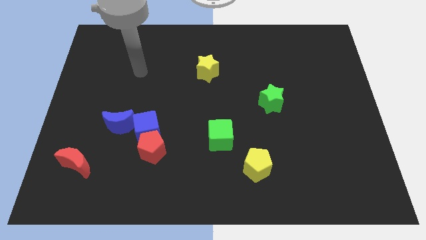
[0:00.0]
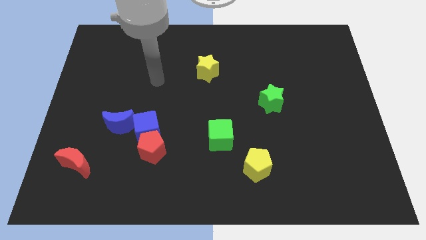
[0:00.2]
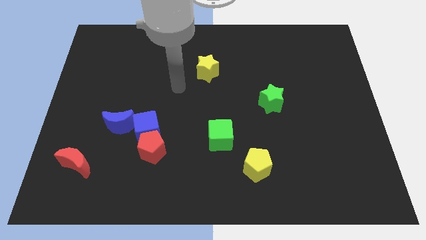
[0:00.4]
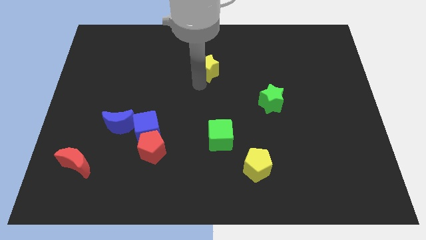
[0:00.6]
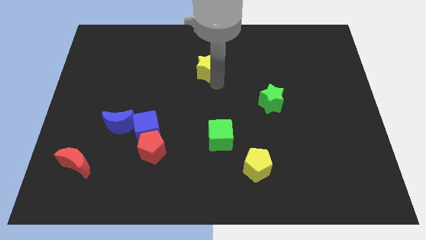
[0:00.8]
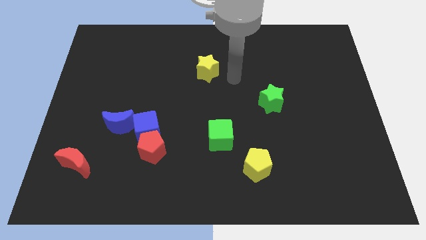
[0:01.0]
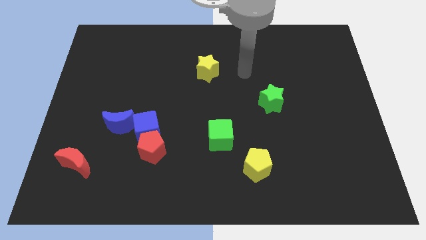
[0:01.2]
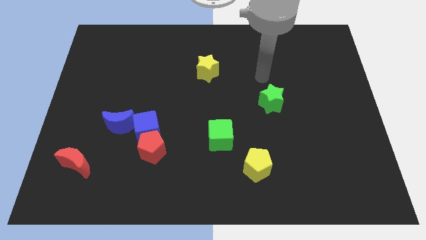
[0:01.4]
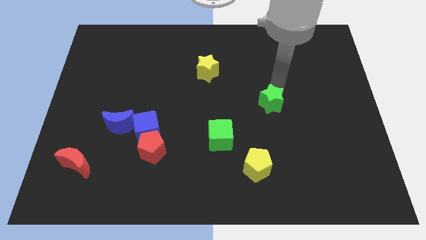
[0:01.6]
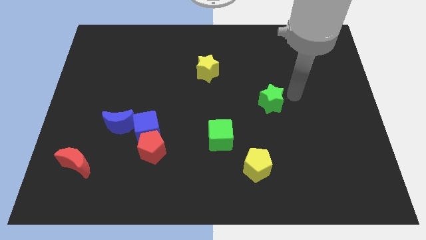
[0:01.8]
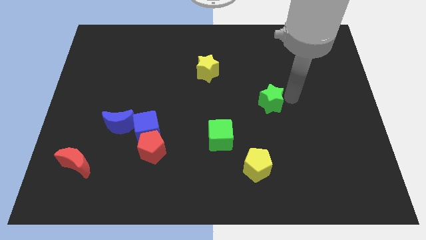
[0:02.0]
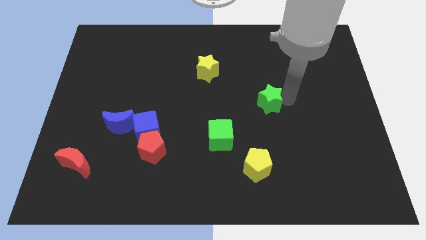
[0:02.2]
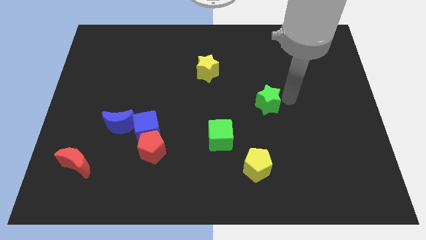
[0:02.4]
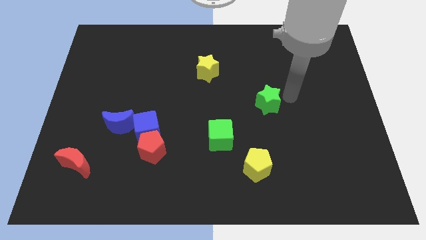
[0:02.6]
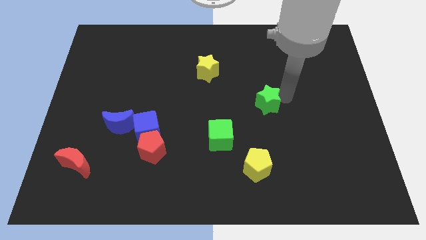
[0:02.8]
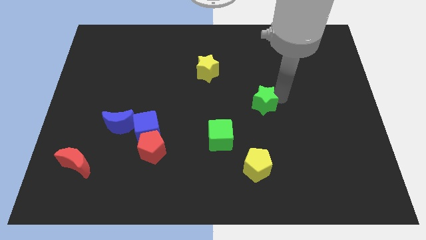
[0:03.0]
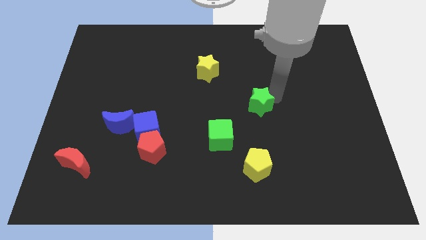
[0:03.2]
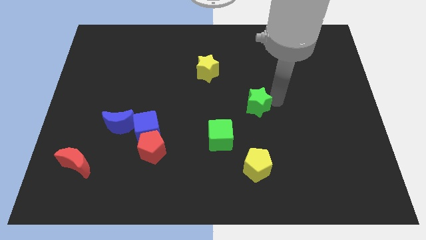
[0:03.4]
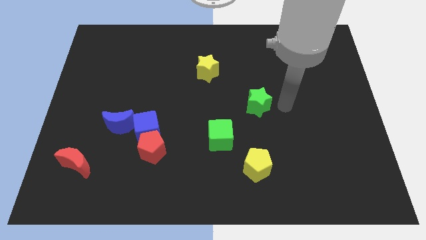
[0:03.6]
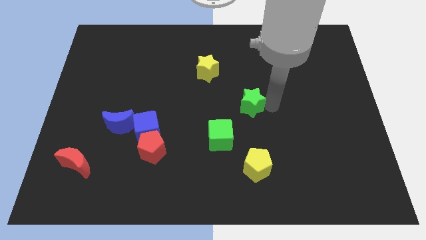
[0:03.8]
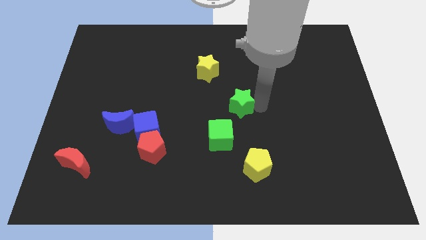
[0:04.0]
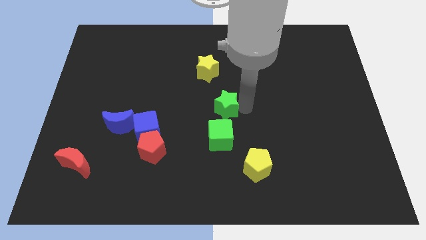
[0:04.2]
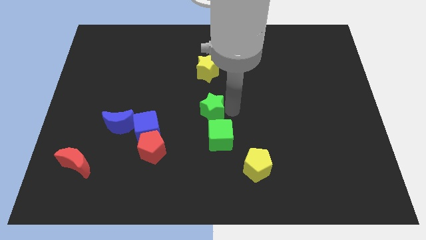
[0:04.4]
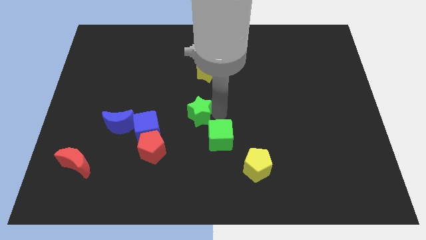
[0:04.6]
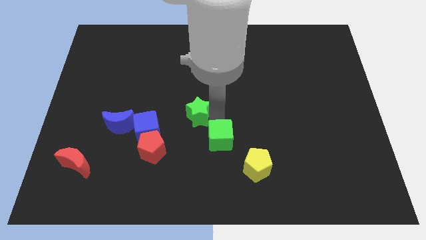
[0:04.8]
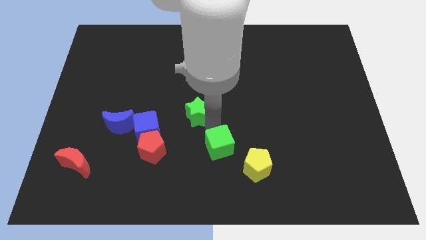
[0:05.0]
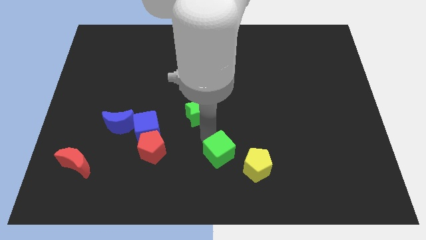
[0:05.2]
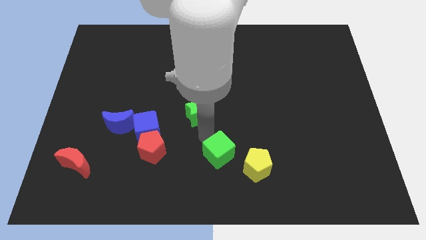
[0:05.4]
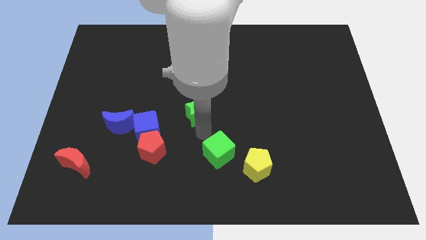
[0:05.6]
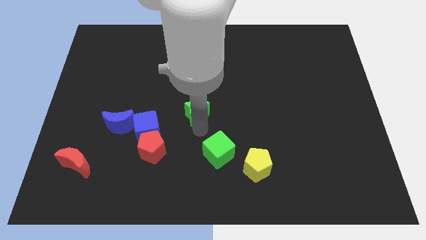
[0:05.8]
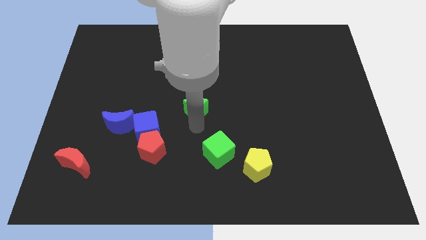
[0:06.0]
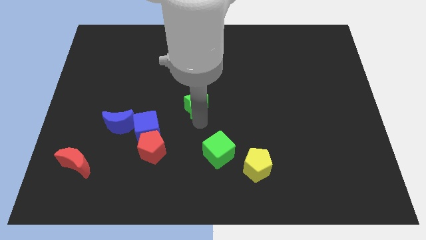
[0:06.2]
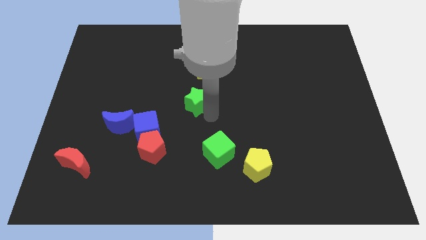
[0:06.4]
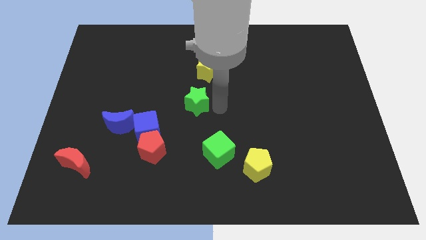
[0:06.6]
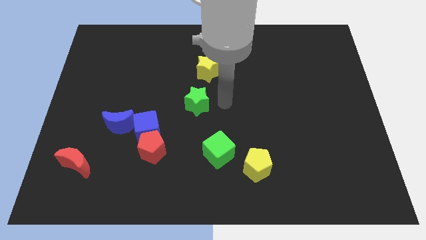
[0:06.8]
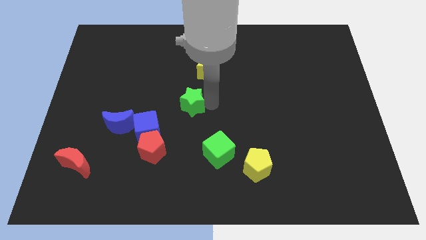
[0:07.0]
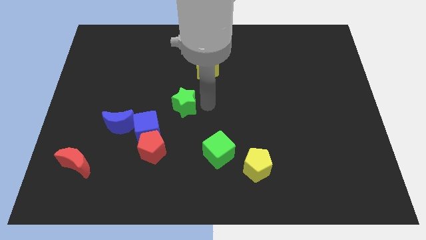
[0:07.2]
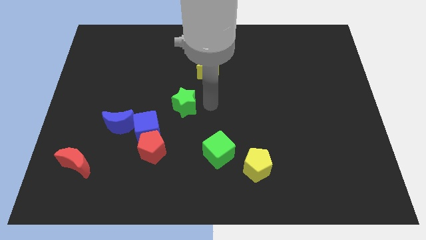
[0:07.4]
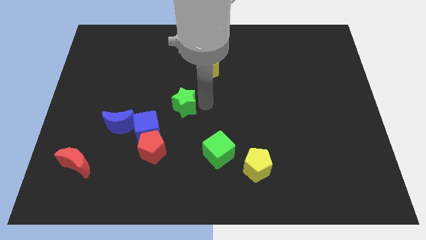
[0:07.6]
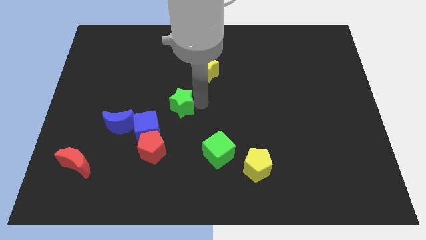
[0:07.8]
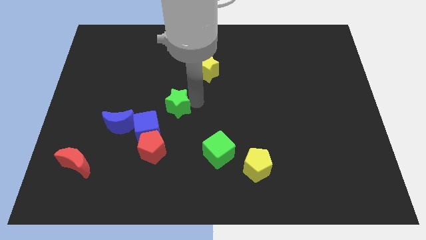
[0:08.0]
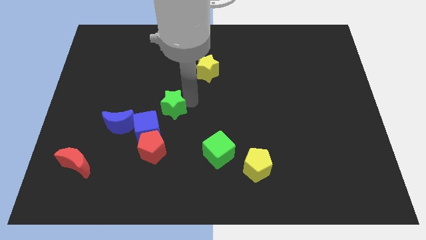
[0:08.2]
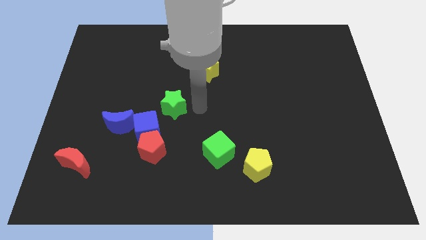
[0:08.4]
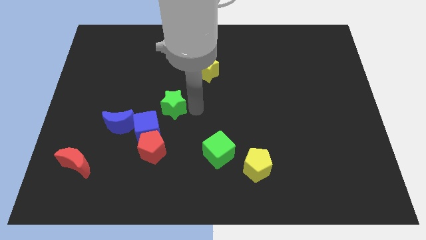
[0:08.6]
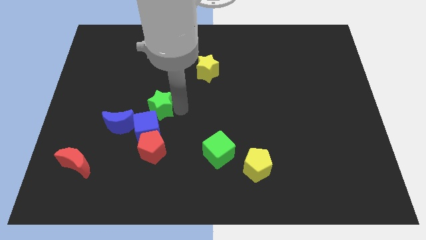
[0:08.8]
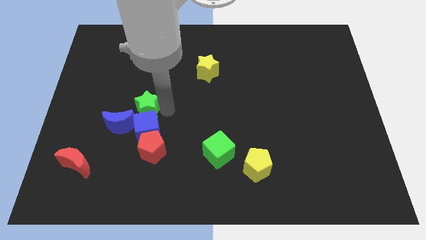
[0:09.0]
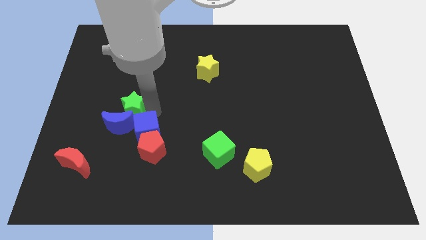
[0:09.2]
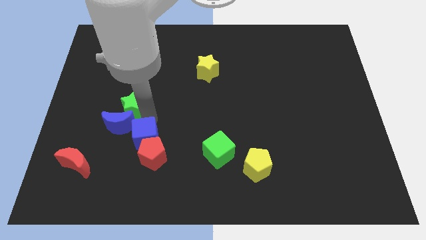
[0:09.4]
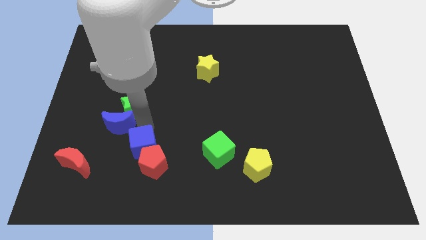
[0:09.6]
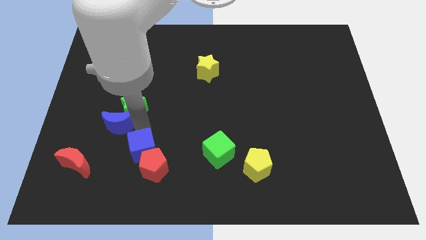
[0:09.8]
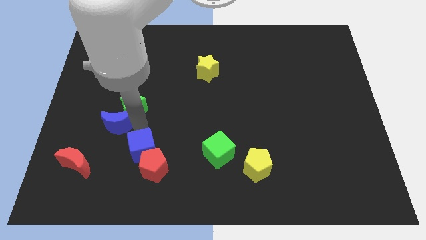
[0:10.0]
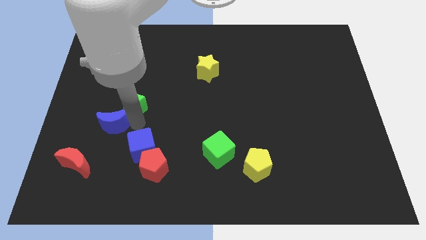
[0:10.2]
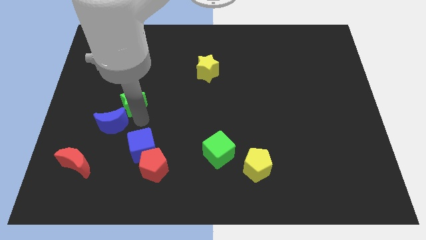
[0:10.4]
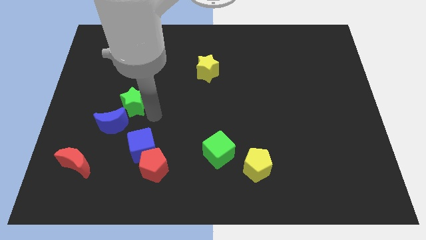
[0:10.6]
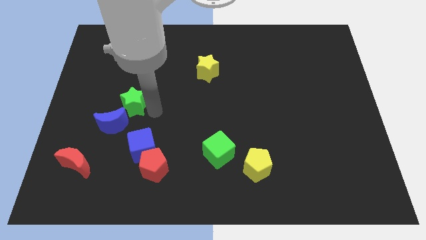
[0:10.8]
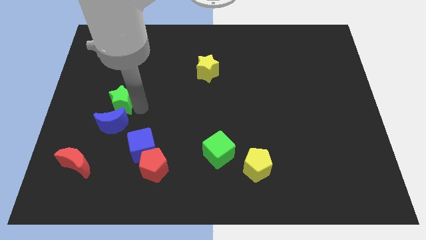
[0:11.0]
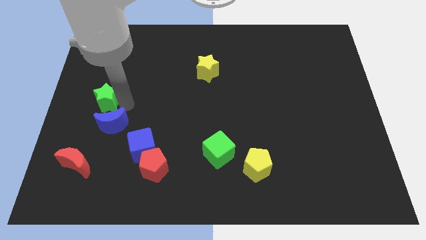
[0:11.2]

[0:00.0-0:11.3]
put the green star to the left side of the board

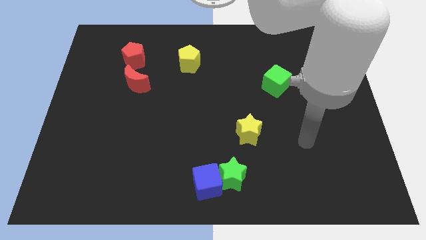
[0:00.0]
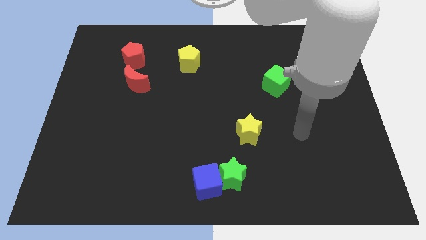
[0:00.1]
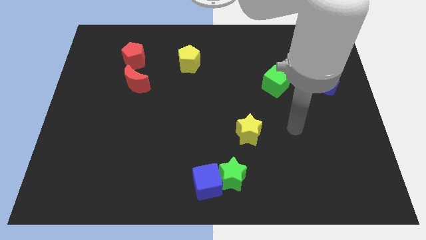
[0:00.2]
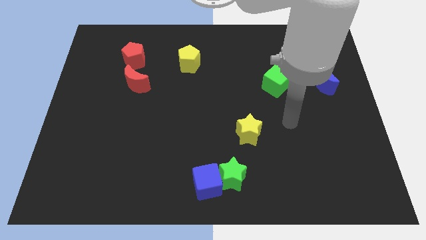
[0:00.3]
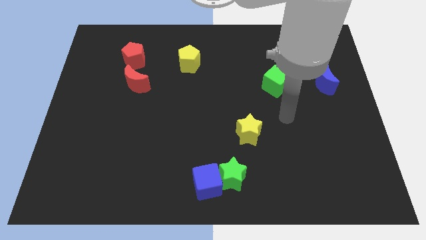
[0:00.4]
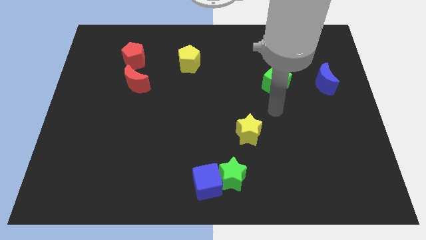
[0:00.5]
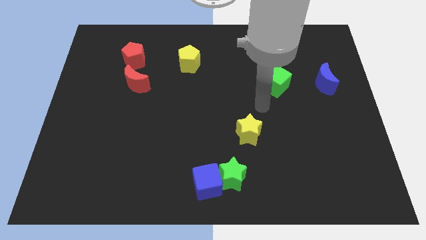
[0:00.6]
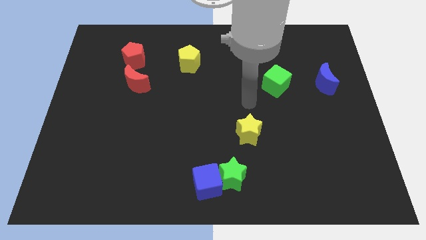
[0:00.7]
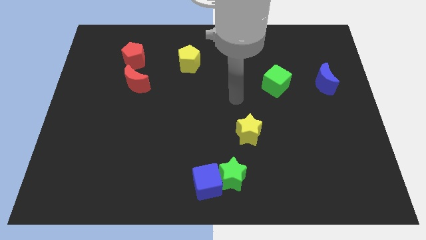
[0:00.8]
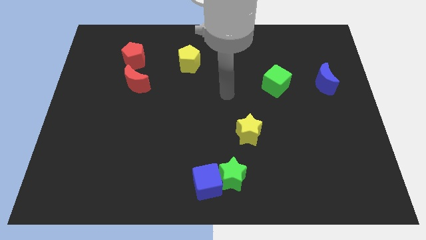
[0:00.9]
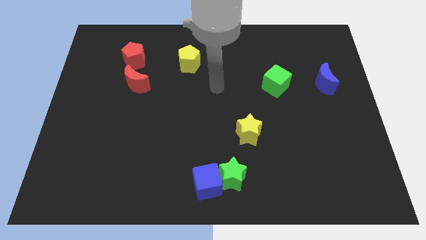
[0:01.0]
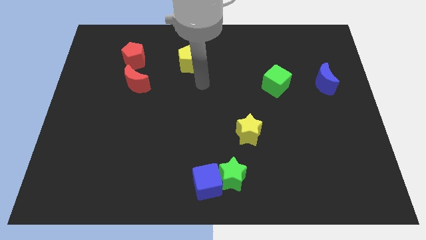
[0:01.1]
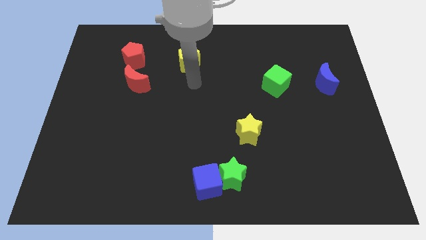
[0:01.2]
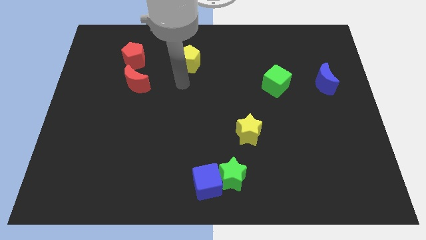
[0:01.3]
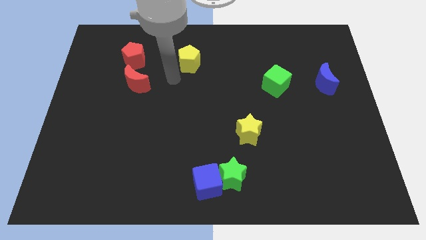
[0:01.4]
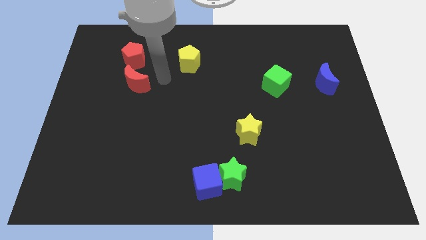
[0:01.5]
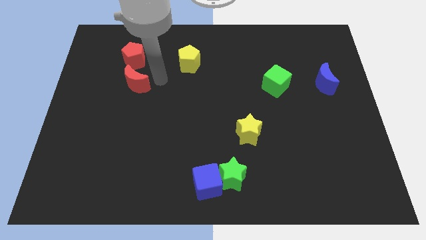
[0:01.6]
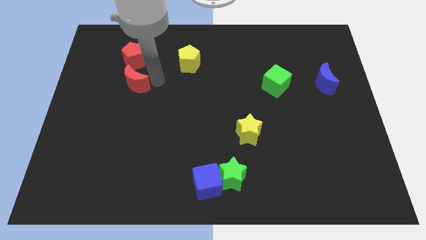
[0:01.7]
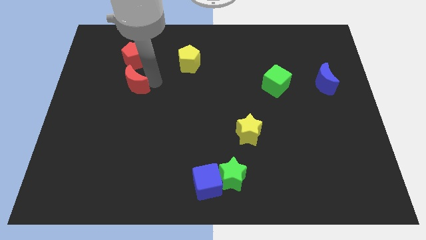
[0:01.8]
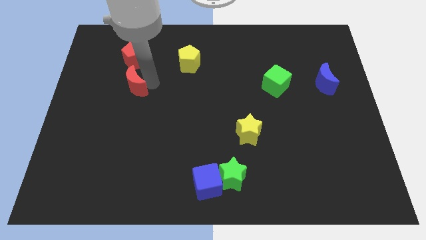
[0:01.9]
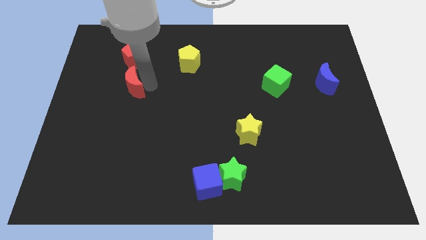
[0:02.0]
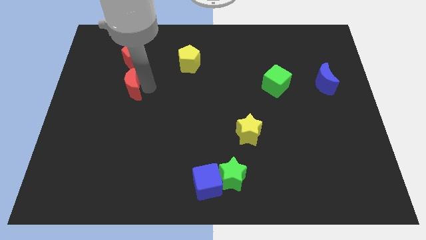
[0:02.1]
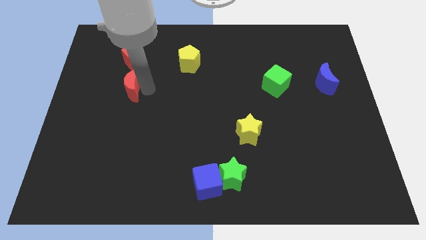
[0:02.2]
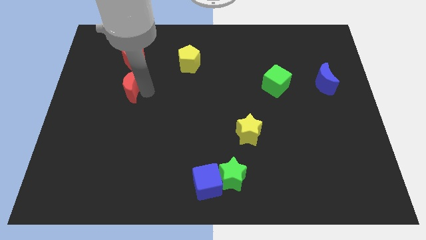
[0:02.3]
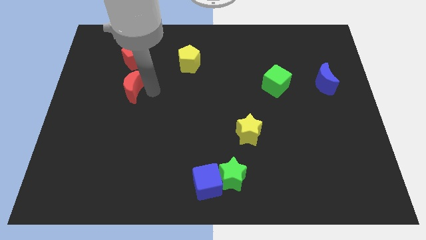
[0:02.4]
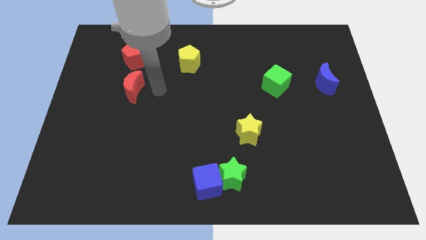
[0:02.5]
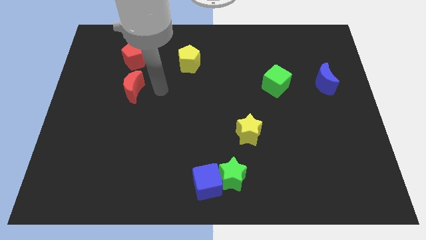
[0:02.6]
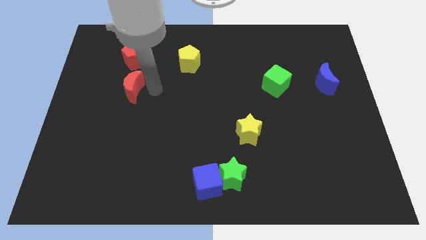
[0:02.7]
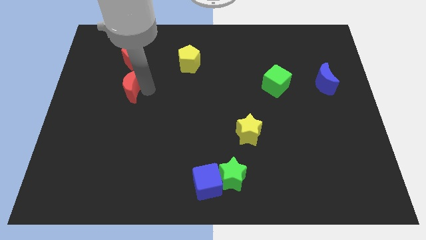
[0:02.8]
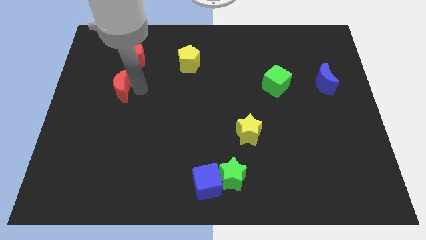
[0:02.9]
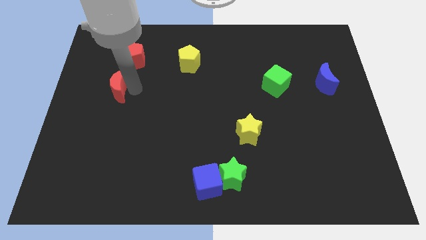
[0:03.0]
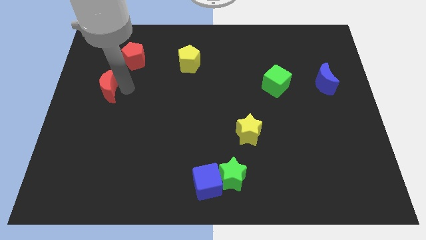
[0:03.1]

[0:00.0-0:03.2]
put the red moon to the left side
